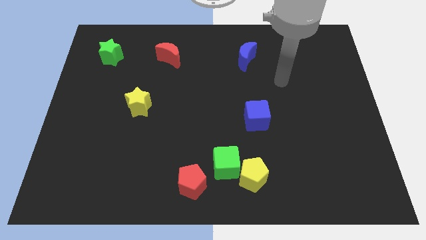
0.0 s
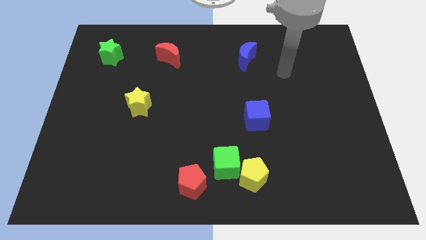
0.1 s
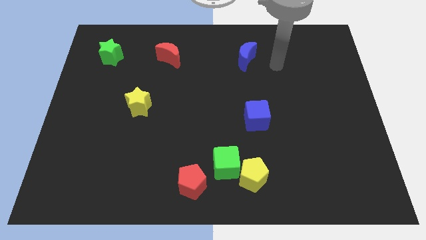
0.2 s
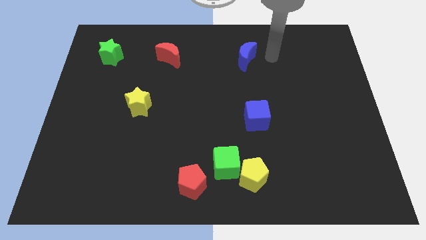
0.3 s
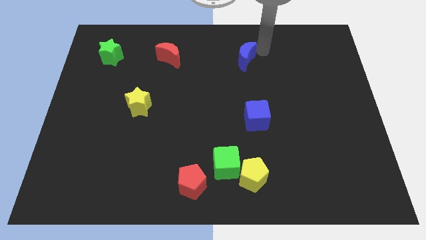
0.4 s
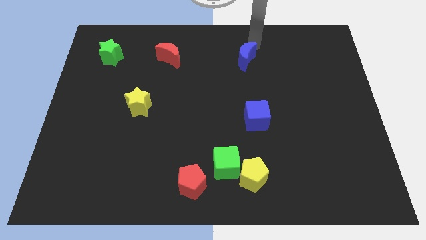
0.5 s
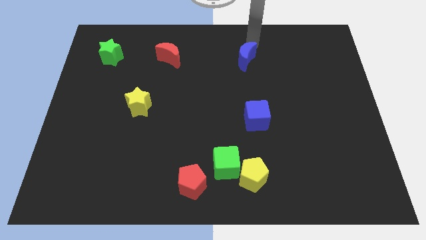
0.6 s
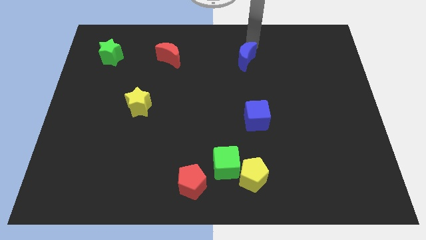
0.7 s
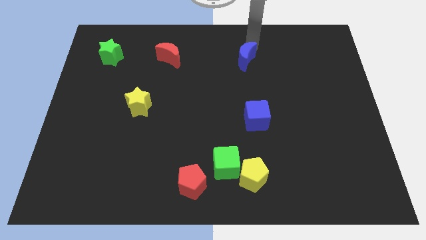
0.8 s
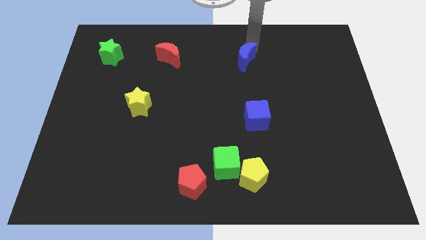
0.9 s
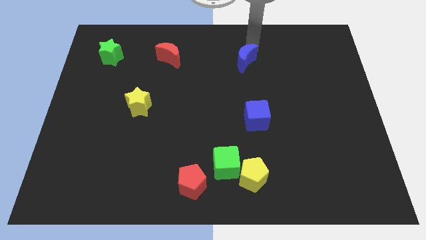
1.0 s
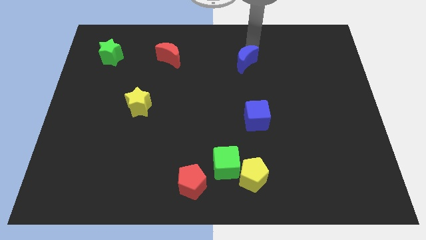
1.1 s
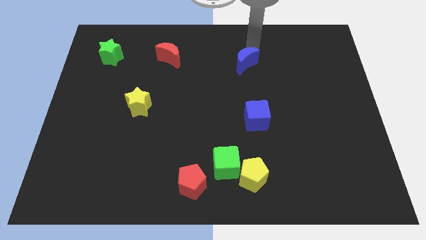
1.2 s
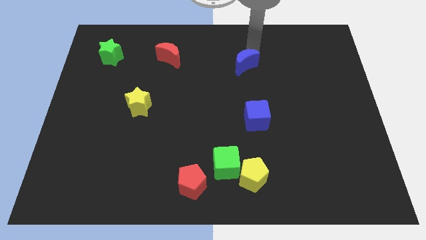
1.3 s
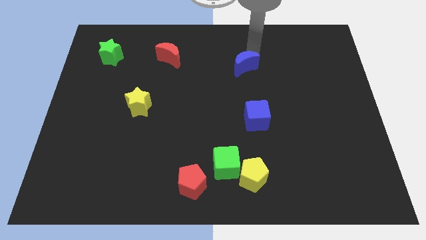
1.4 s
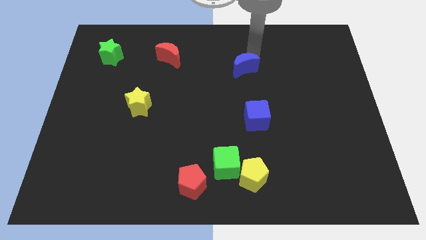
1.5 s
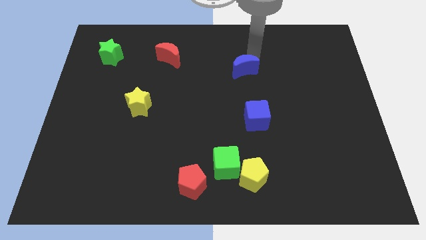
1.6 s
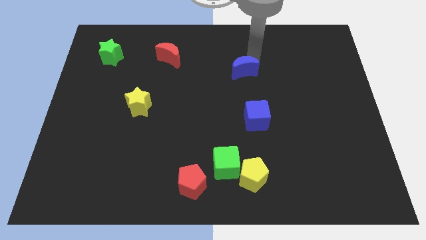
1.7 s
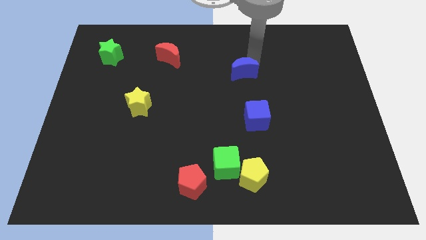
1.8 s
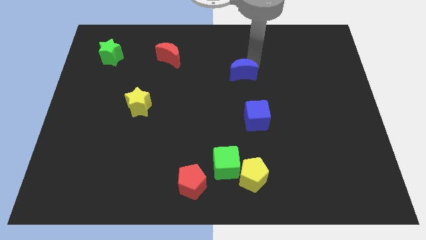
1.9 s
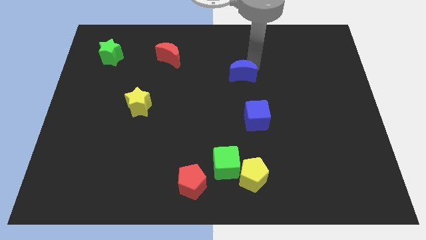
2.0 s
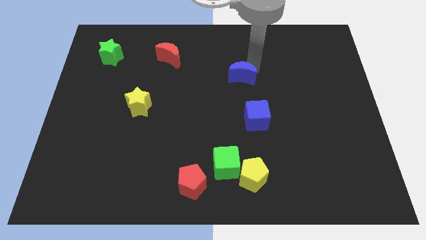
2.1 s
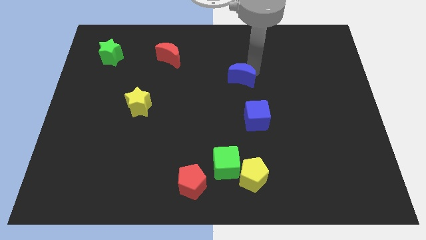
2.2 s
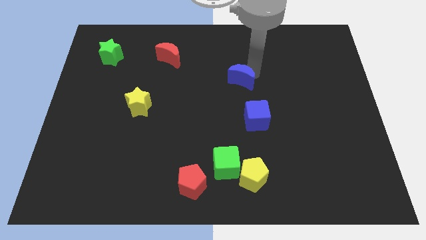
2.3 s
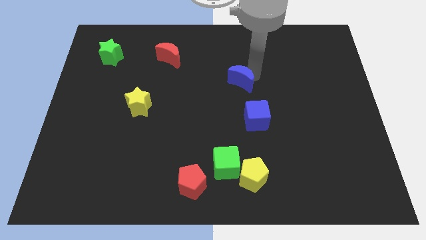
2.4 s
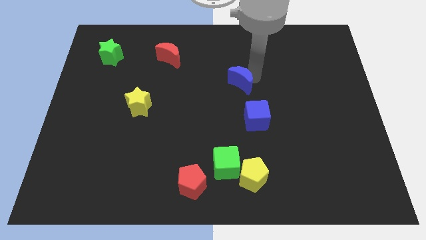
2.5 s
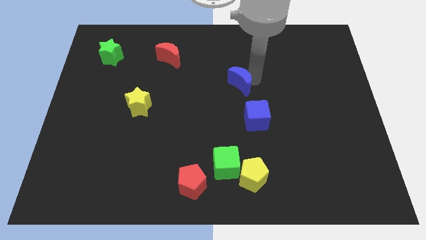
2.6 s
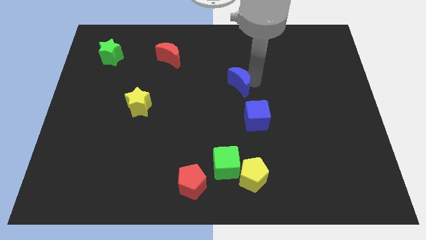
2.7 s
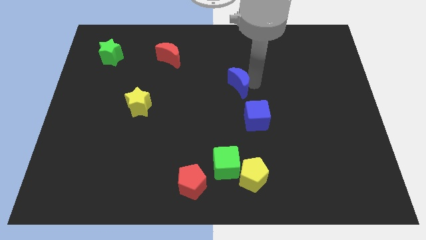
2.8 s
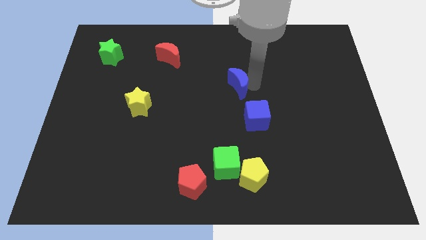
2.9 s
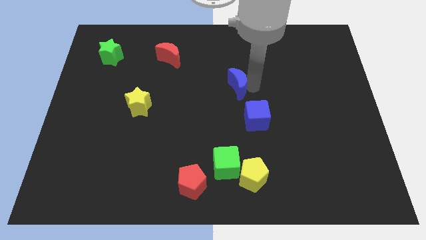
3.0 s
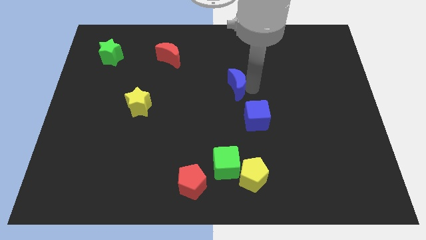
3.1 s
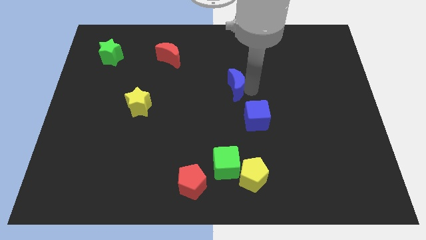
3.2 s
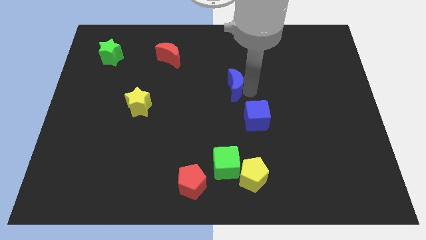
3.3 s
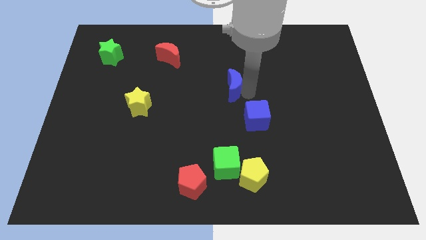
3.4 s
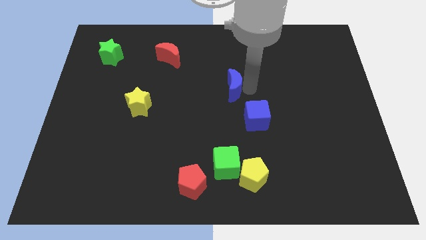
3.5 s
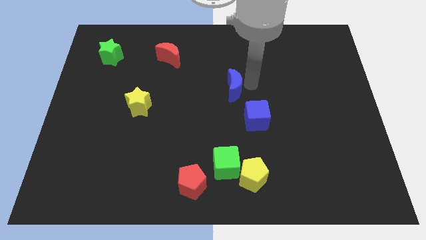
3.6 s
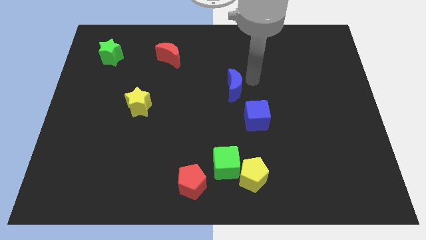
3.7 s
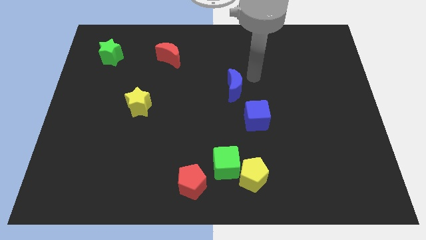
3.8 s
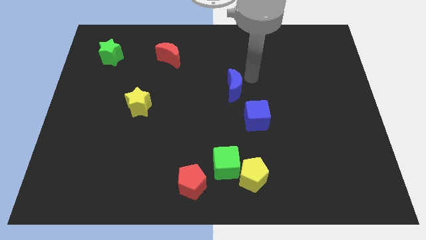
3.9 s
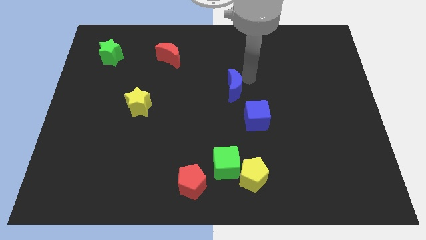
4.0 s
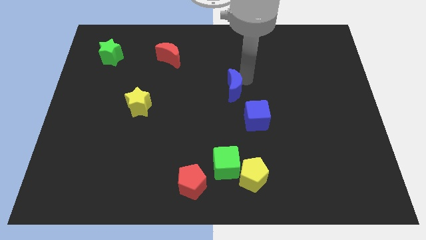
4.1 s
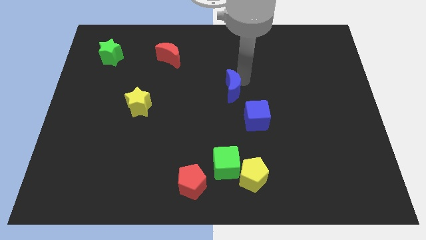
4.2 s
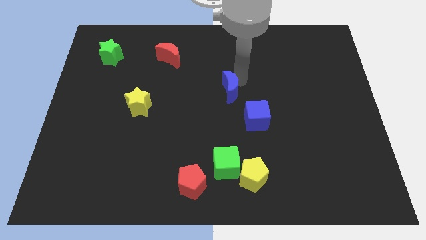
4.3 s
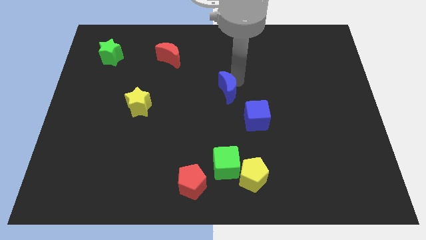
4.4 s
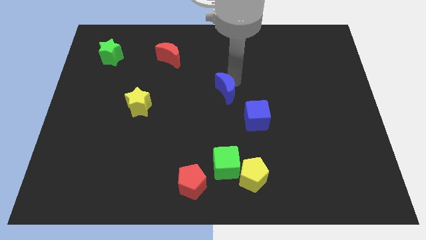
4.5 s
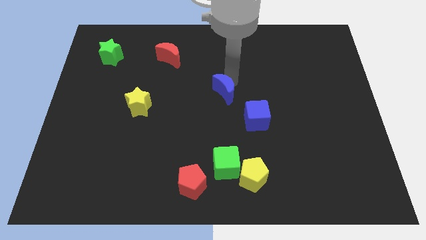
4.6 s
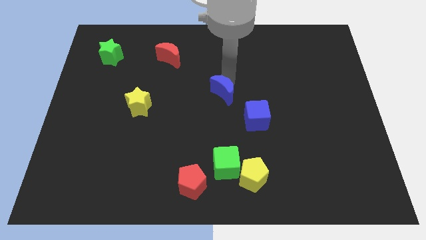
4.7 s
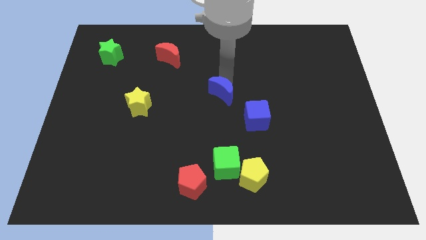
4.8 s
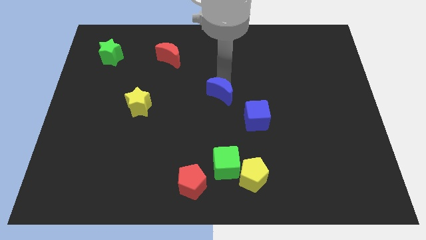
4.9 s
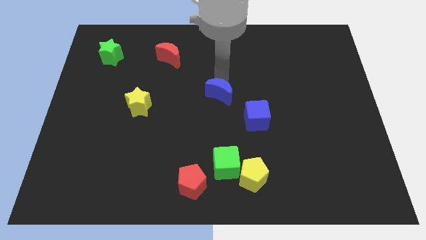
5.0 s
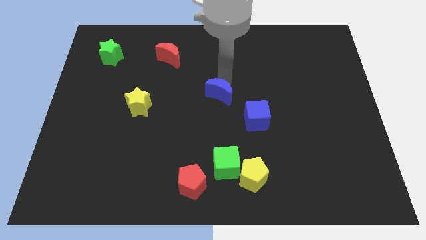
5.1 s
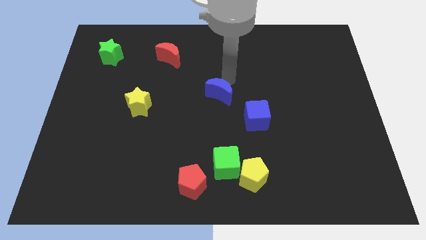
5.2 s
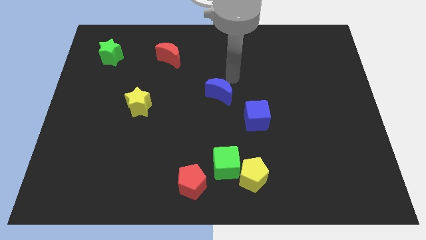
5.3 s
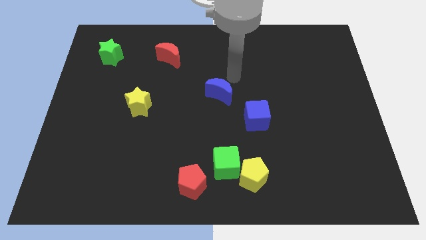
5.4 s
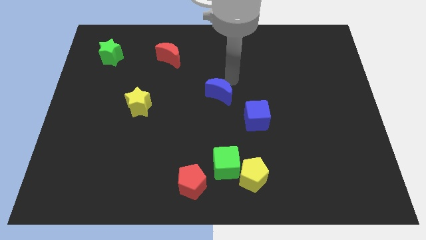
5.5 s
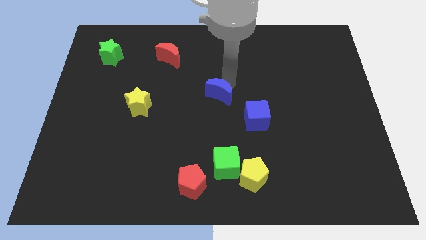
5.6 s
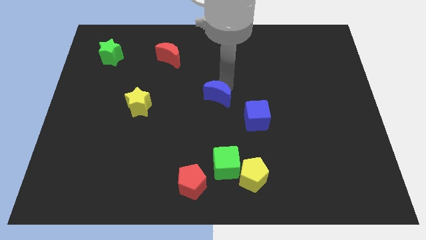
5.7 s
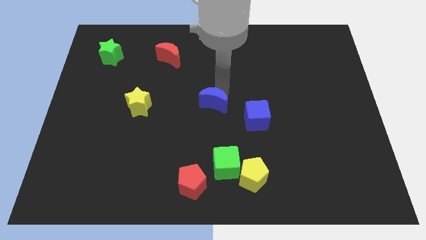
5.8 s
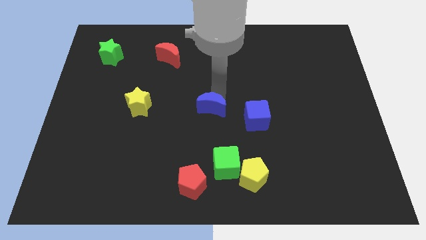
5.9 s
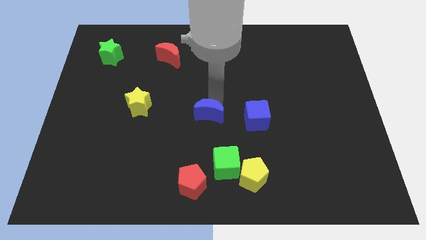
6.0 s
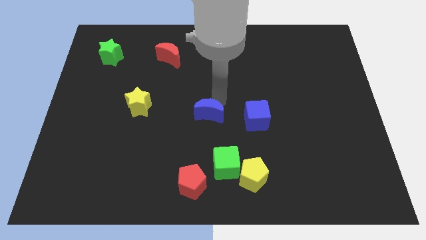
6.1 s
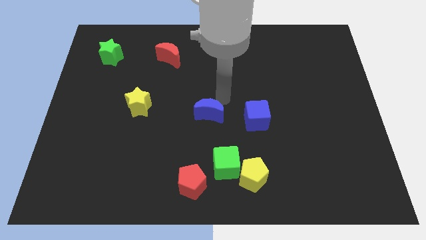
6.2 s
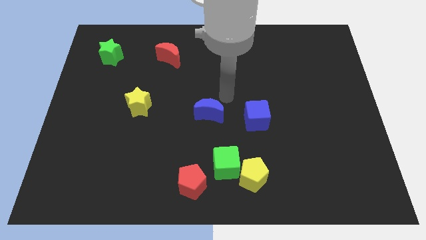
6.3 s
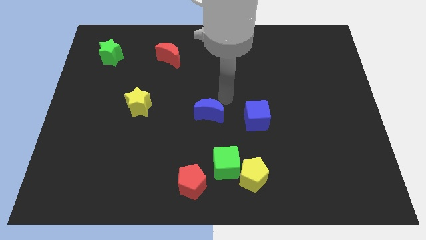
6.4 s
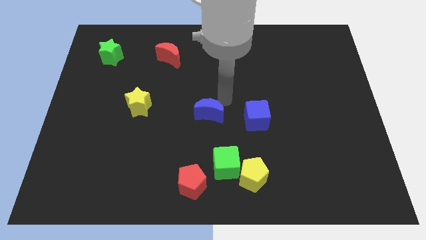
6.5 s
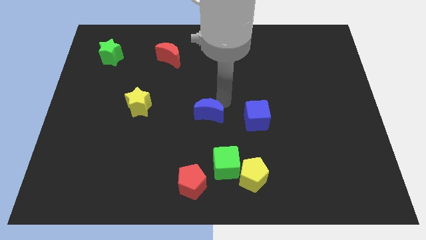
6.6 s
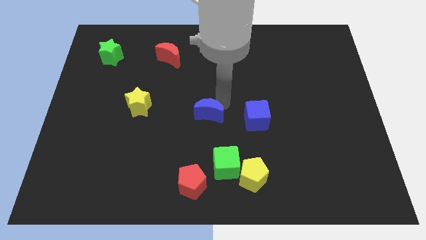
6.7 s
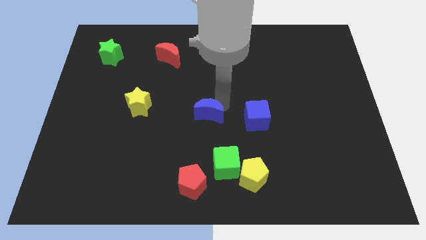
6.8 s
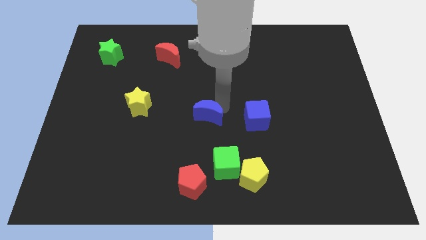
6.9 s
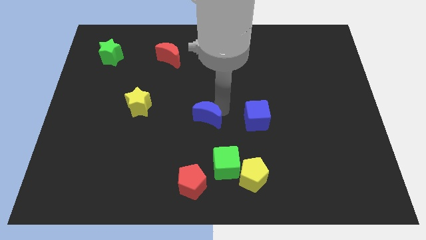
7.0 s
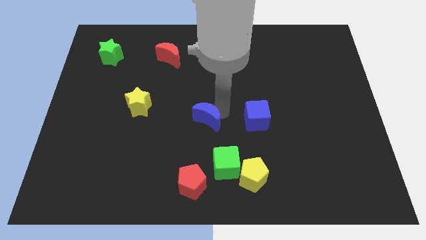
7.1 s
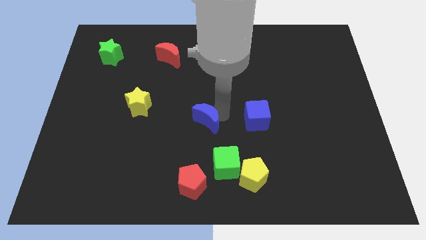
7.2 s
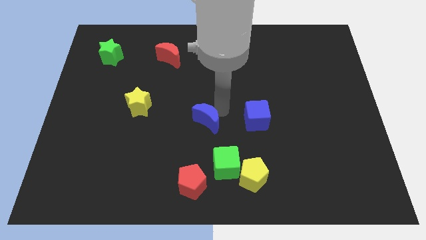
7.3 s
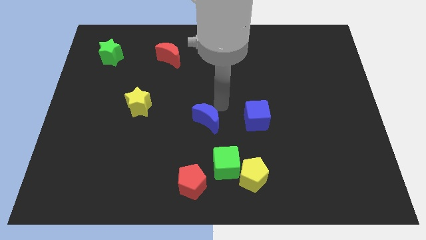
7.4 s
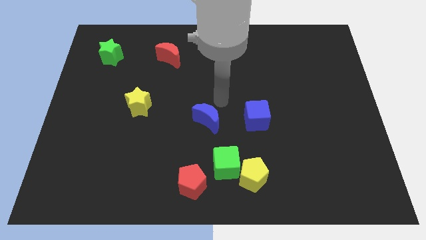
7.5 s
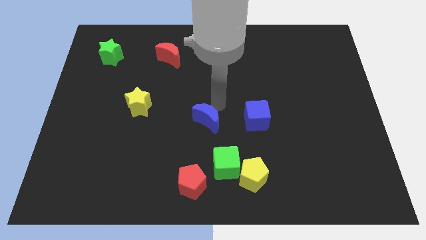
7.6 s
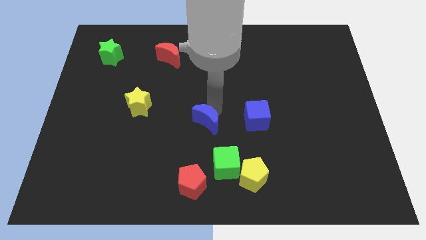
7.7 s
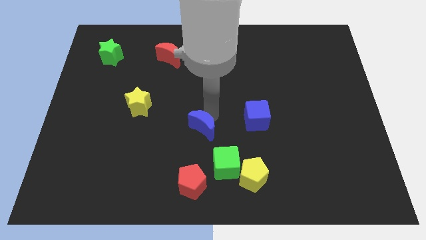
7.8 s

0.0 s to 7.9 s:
put the blue moon to the top side of the red pentagon
